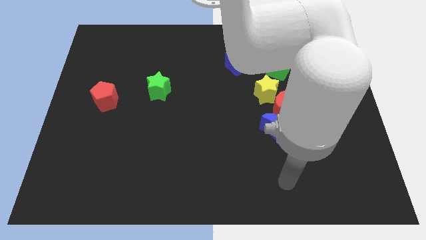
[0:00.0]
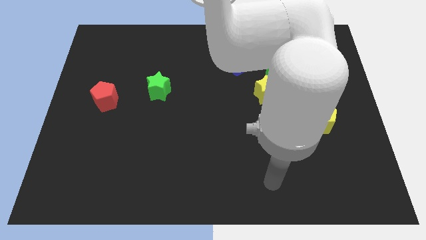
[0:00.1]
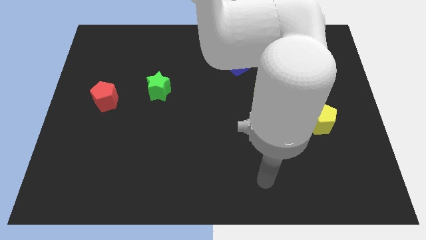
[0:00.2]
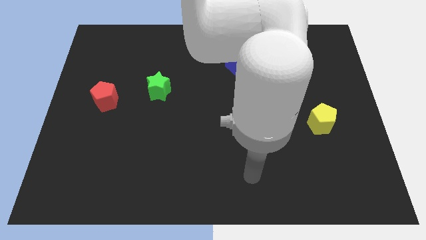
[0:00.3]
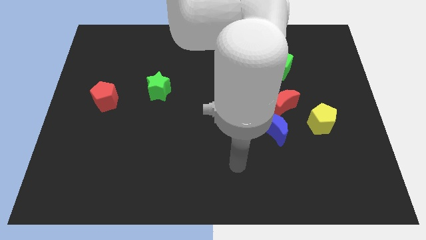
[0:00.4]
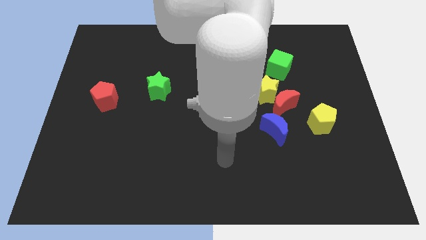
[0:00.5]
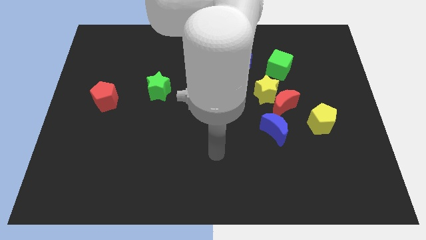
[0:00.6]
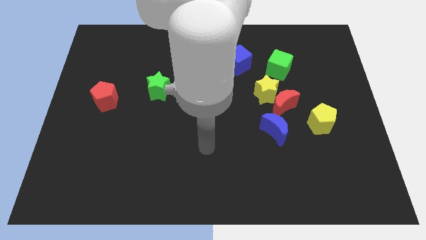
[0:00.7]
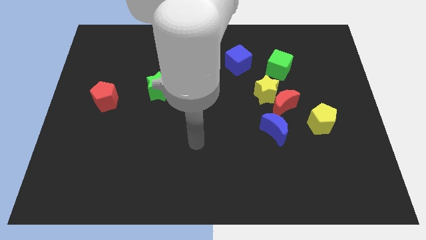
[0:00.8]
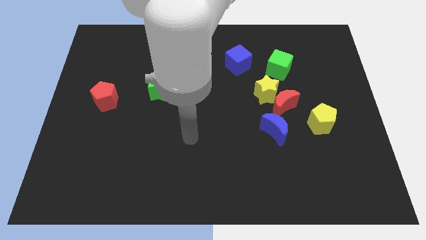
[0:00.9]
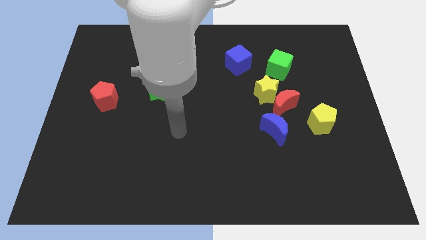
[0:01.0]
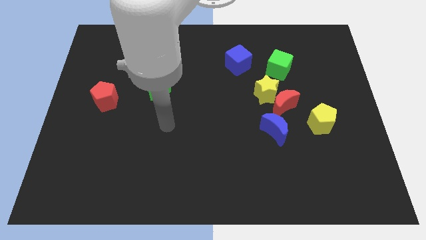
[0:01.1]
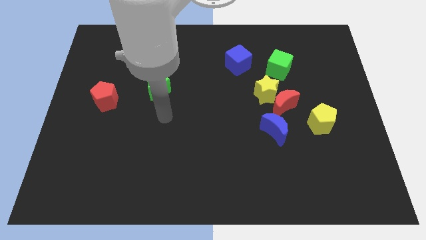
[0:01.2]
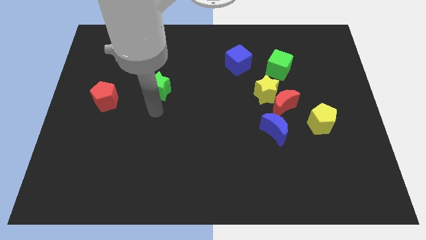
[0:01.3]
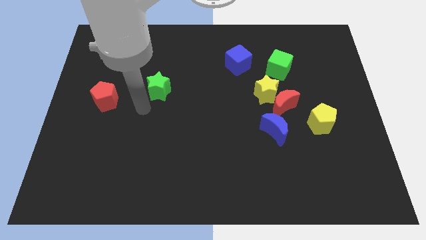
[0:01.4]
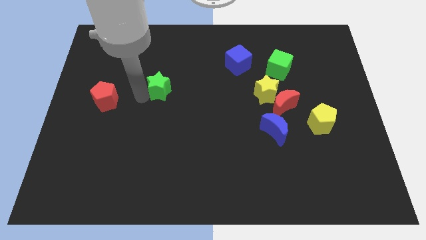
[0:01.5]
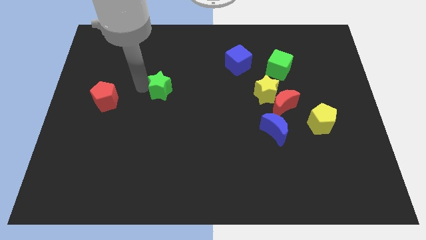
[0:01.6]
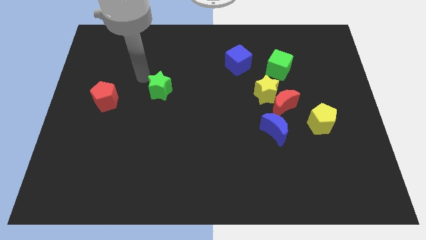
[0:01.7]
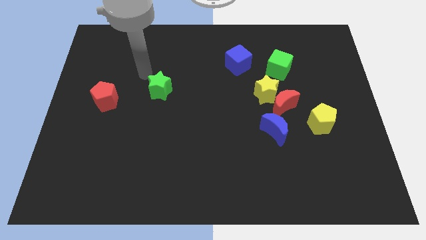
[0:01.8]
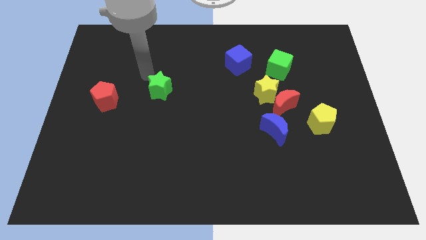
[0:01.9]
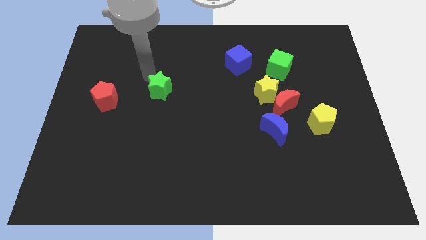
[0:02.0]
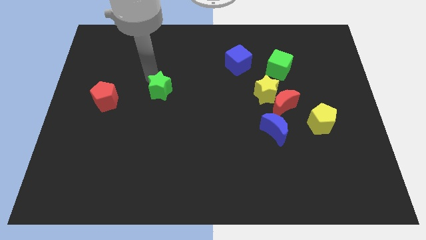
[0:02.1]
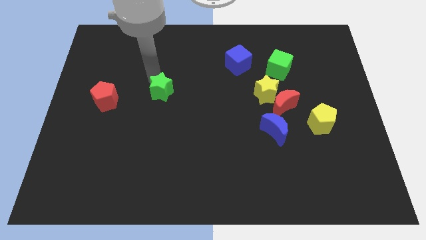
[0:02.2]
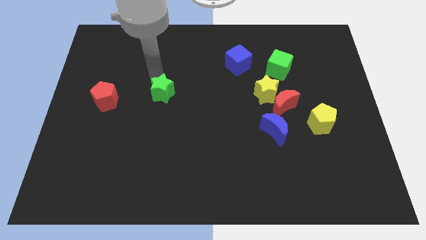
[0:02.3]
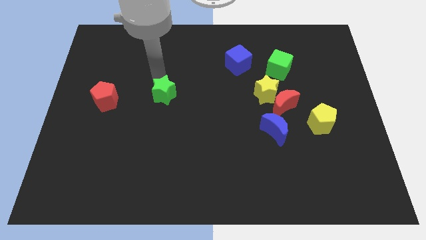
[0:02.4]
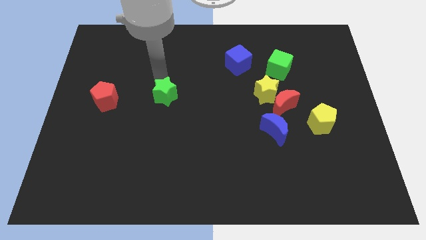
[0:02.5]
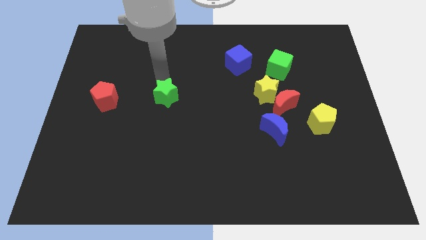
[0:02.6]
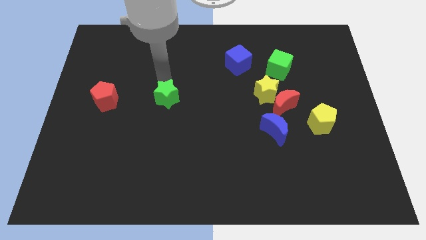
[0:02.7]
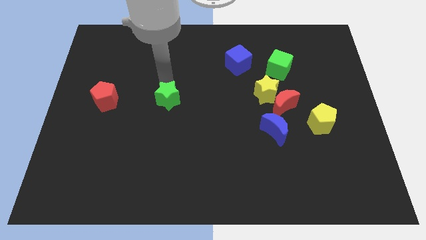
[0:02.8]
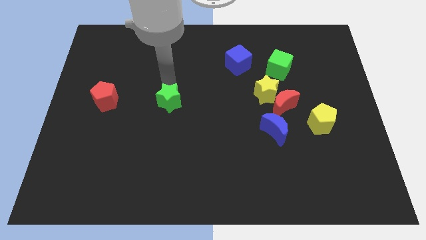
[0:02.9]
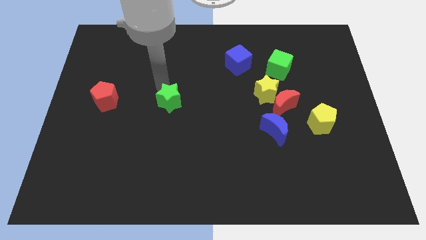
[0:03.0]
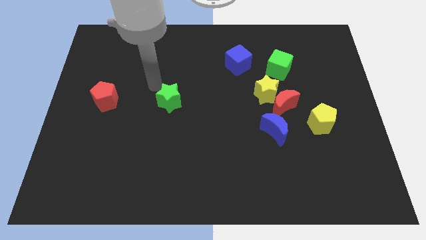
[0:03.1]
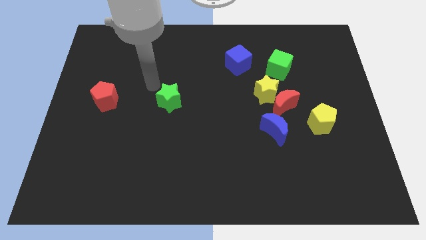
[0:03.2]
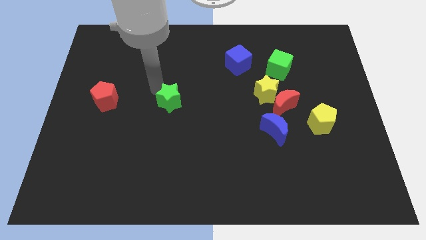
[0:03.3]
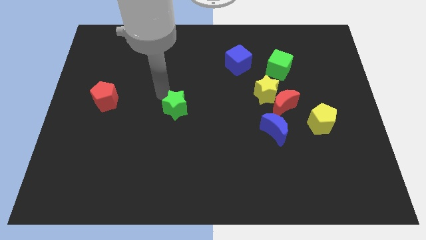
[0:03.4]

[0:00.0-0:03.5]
move the green star down and to the right a little bit

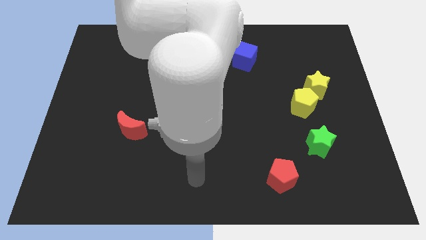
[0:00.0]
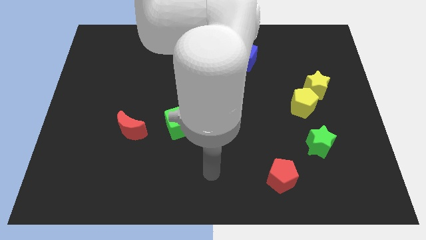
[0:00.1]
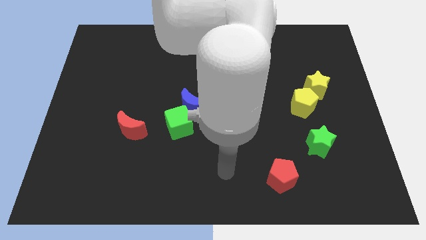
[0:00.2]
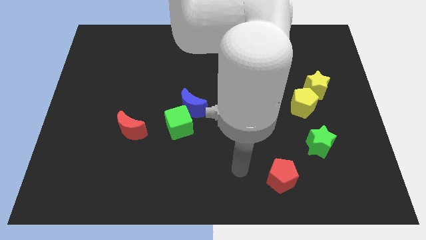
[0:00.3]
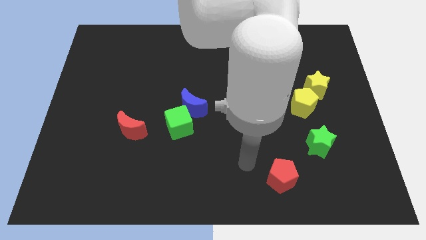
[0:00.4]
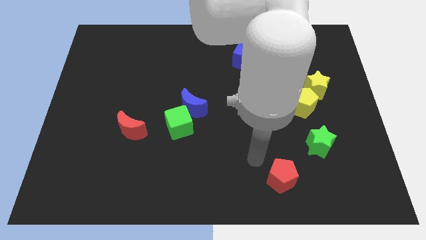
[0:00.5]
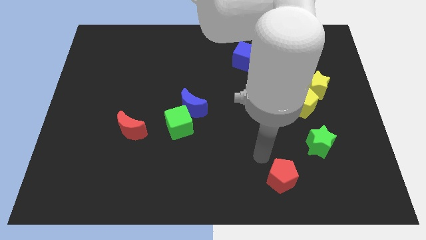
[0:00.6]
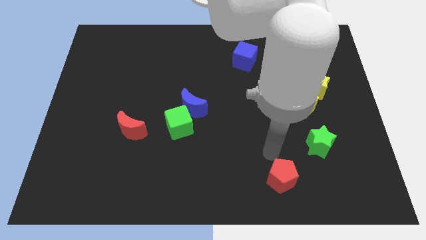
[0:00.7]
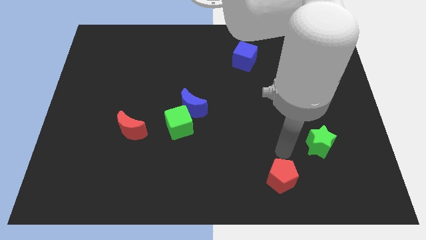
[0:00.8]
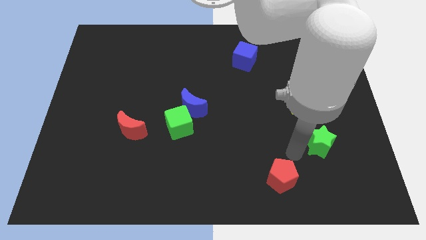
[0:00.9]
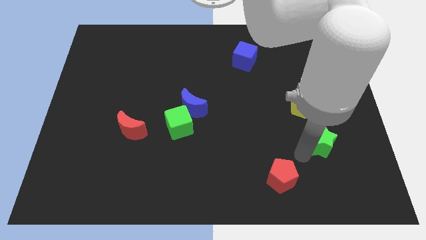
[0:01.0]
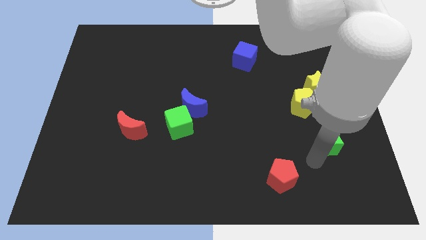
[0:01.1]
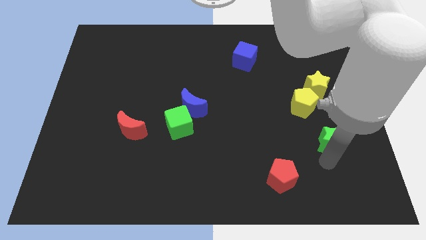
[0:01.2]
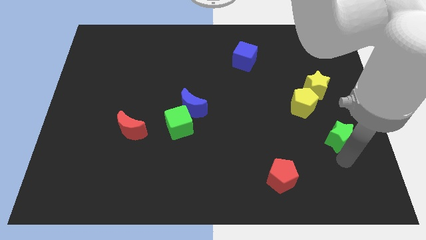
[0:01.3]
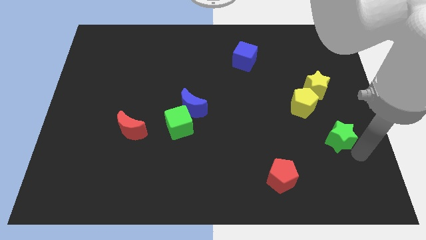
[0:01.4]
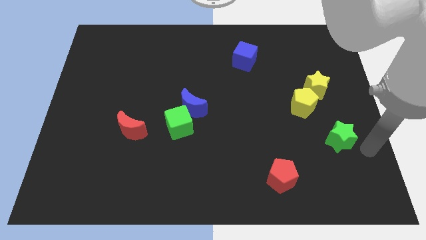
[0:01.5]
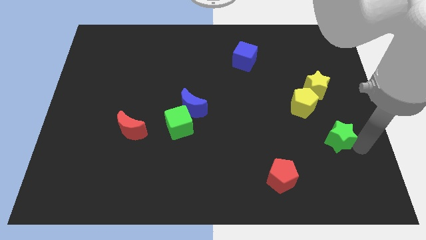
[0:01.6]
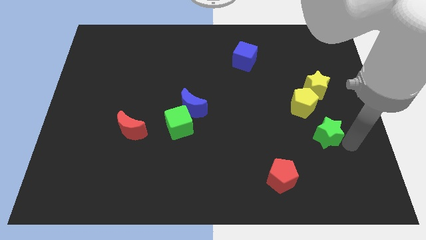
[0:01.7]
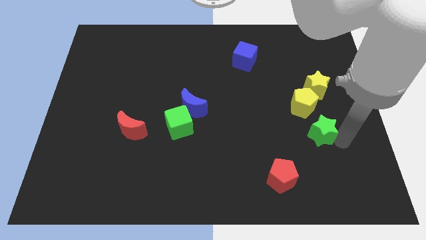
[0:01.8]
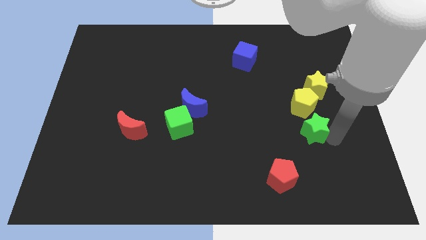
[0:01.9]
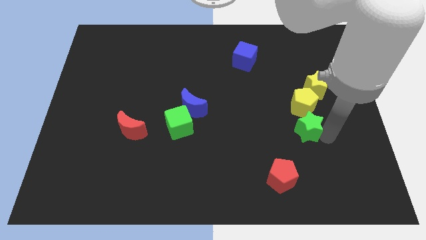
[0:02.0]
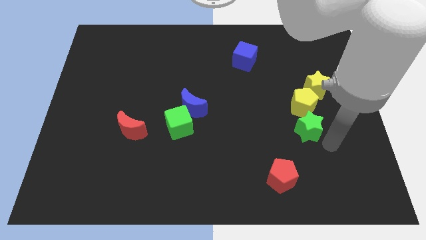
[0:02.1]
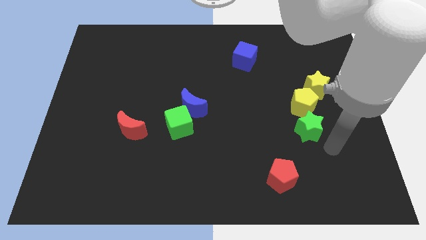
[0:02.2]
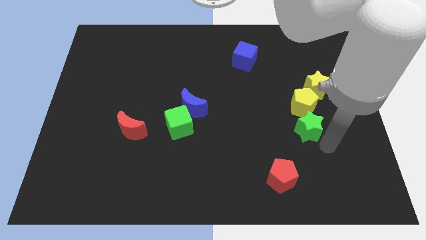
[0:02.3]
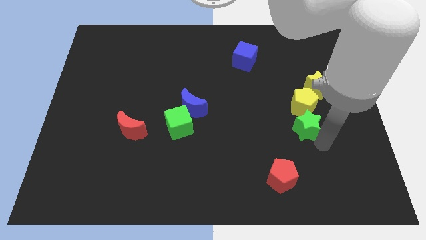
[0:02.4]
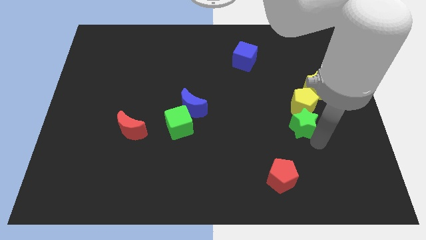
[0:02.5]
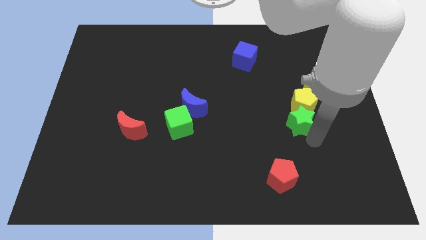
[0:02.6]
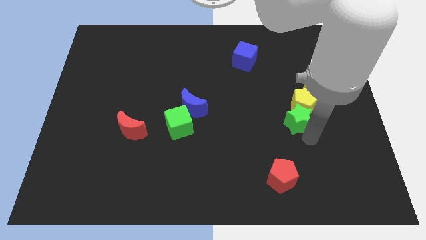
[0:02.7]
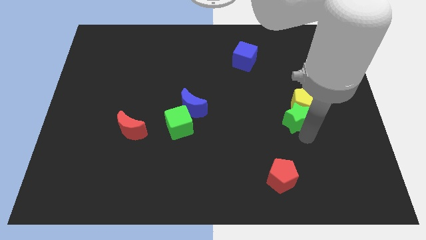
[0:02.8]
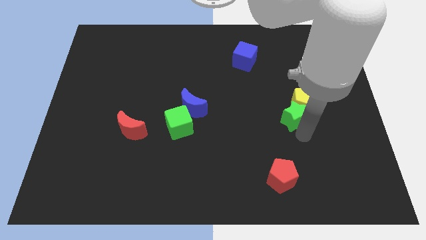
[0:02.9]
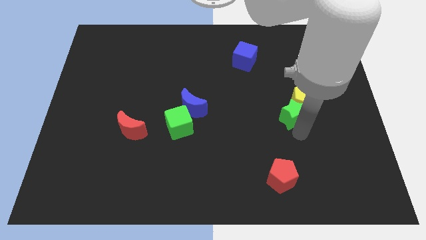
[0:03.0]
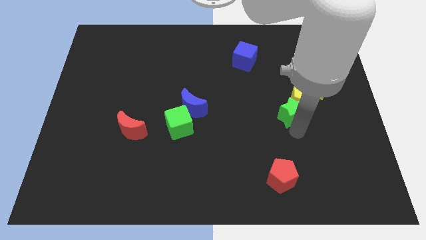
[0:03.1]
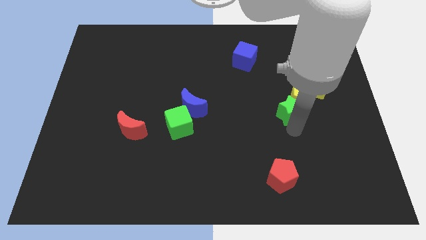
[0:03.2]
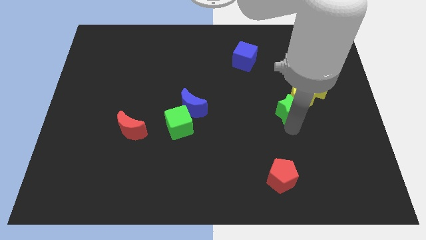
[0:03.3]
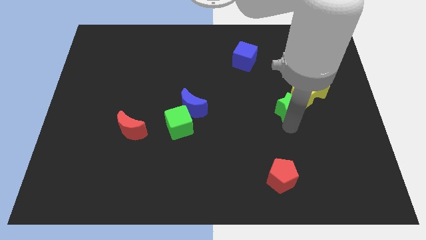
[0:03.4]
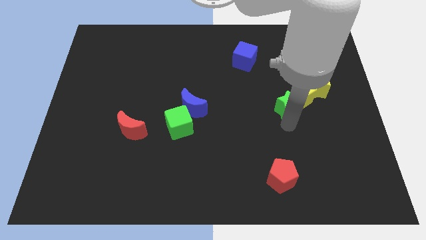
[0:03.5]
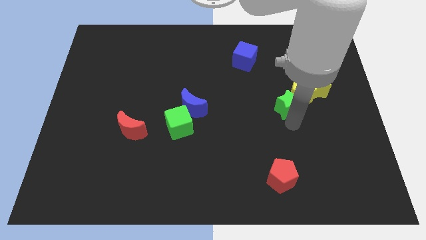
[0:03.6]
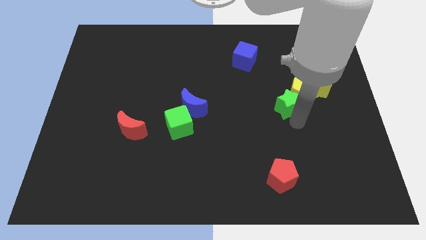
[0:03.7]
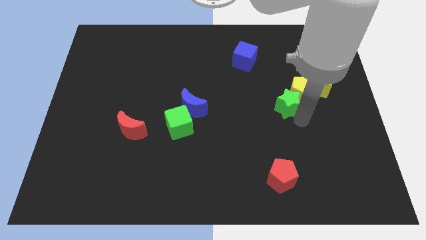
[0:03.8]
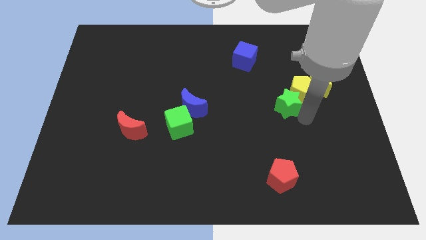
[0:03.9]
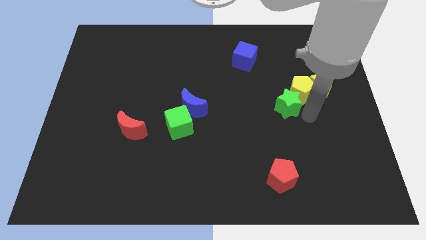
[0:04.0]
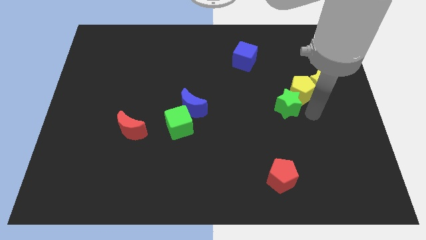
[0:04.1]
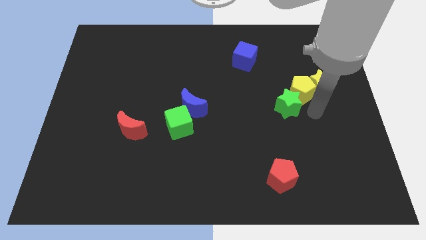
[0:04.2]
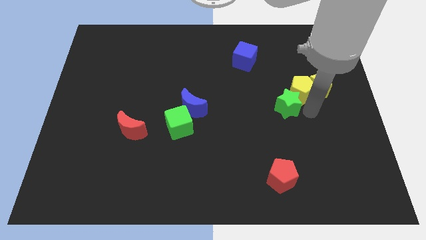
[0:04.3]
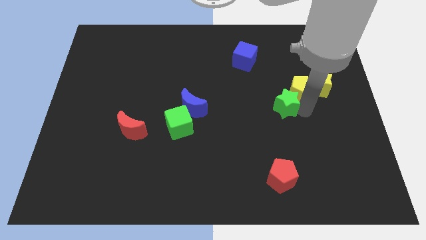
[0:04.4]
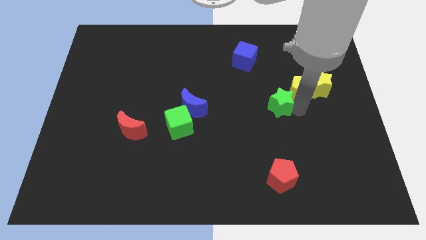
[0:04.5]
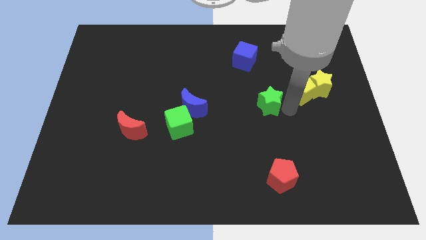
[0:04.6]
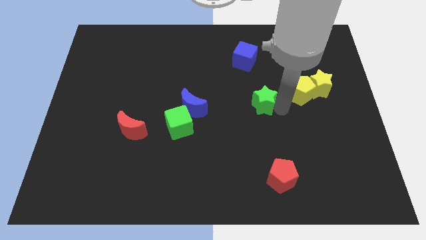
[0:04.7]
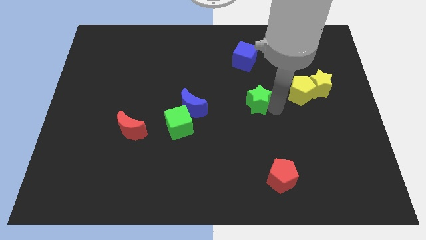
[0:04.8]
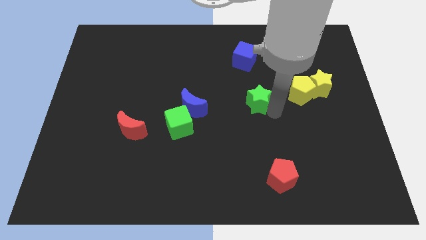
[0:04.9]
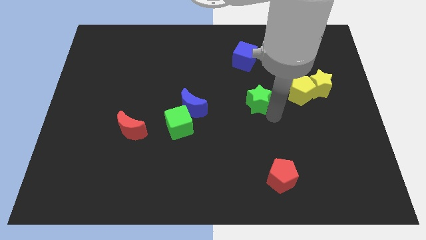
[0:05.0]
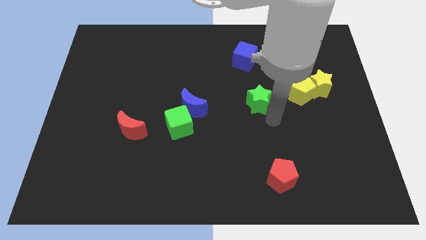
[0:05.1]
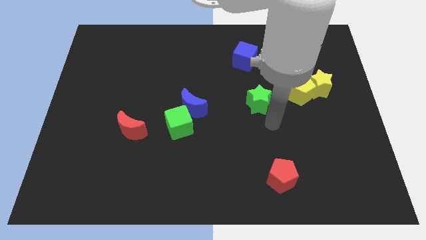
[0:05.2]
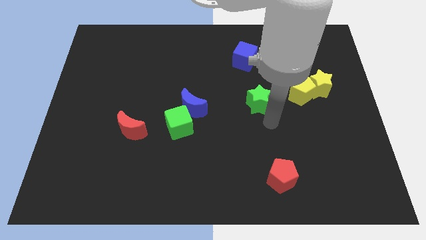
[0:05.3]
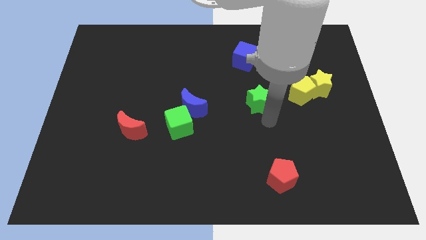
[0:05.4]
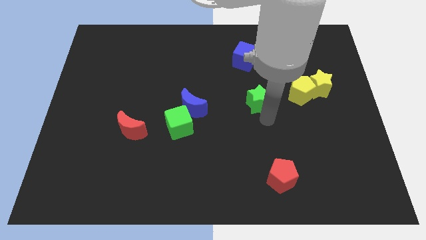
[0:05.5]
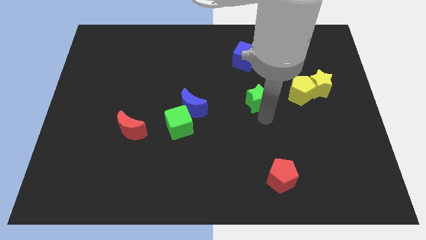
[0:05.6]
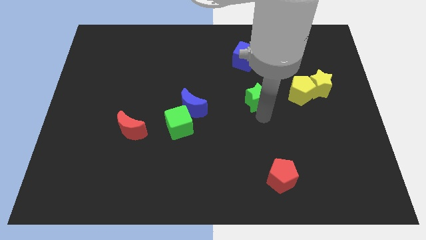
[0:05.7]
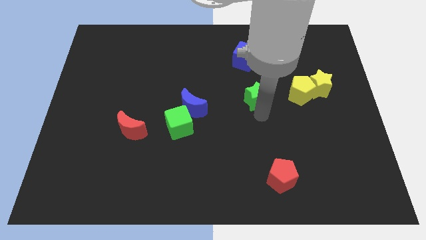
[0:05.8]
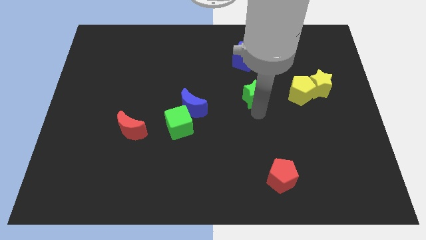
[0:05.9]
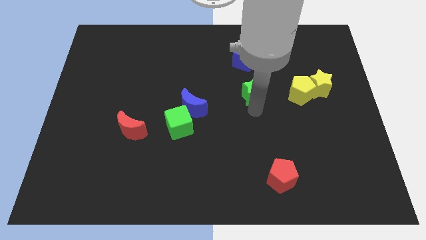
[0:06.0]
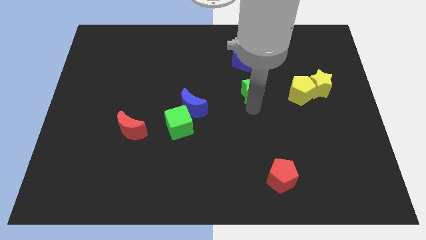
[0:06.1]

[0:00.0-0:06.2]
push the green star diagonally up and to the left
